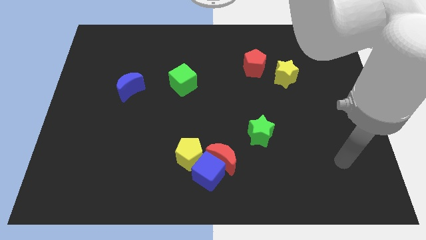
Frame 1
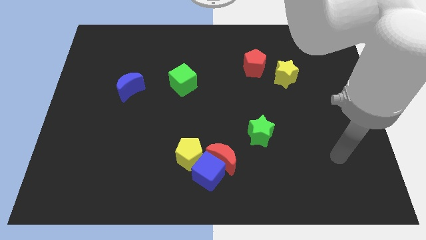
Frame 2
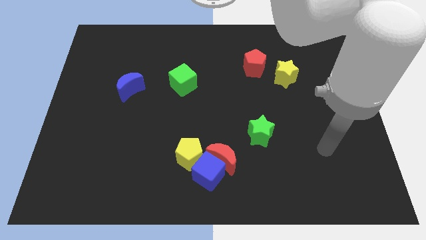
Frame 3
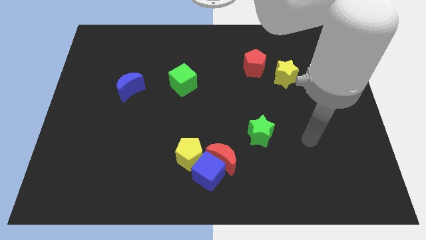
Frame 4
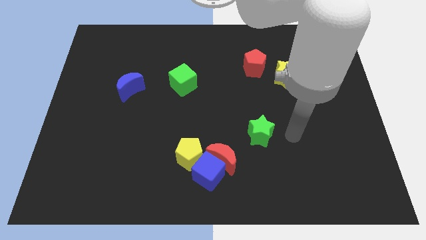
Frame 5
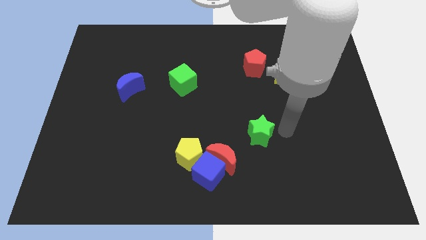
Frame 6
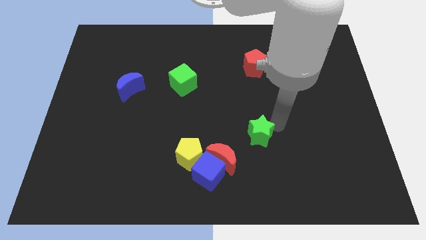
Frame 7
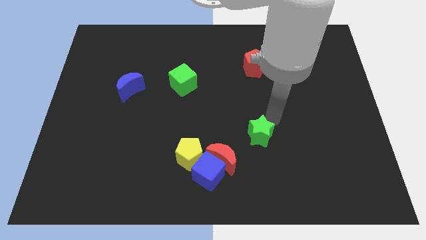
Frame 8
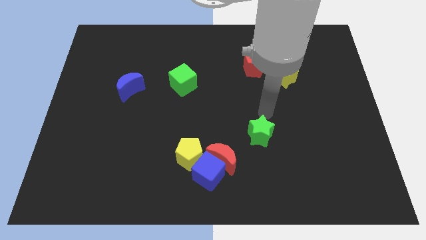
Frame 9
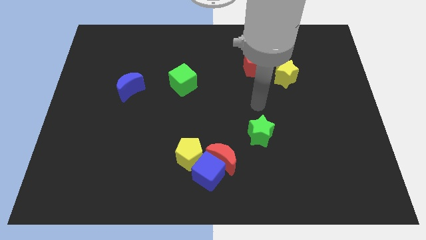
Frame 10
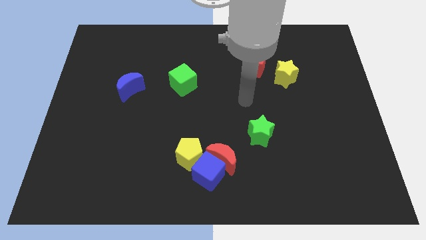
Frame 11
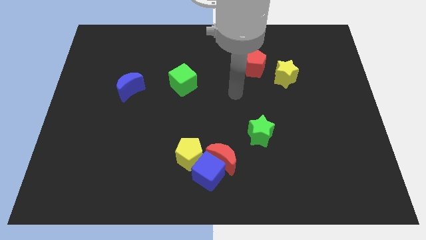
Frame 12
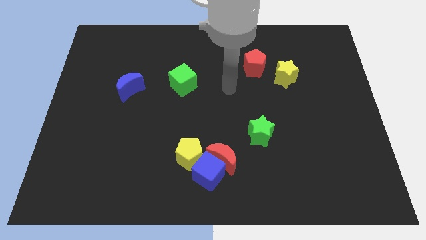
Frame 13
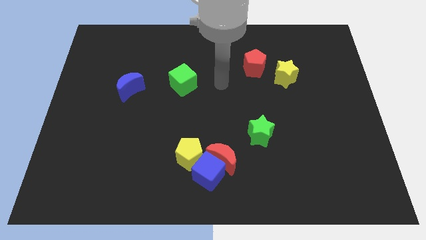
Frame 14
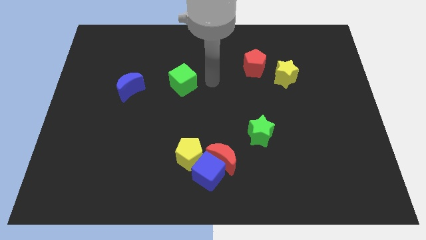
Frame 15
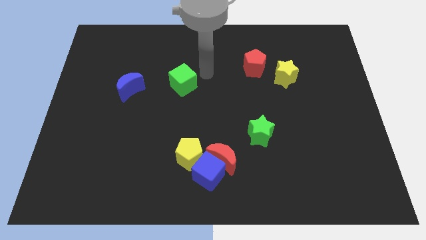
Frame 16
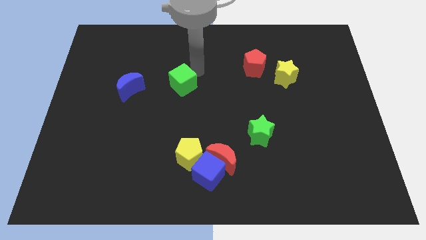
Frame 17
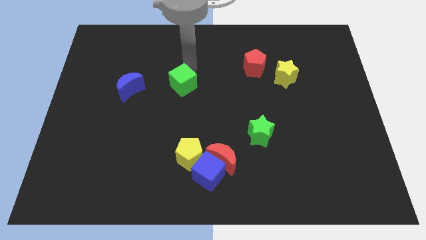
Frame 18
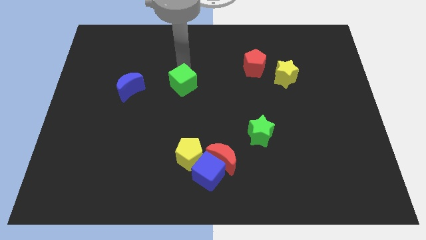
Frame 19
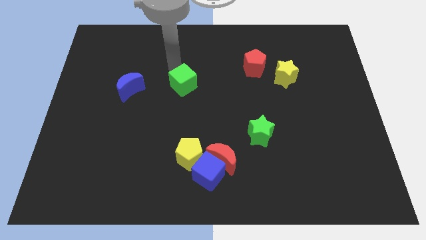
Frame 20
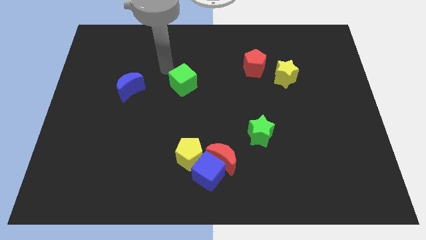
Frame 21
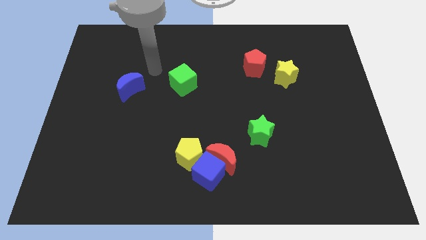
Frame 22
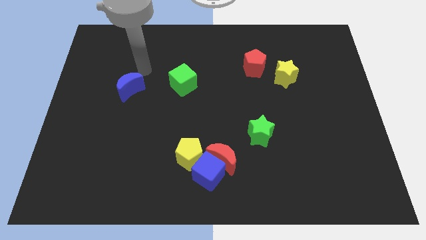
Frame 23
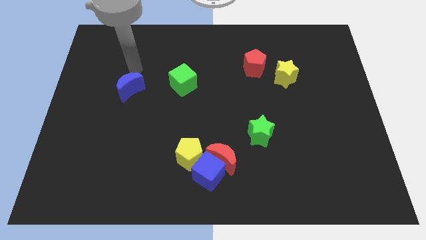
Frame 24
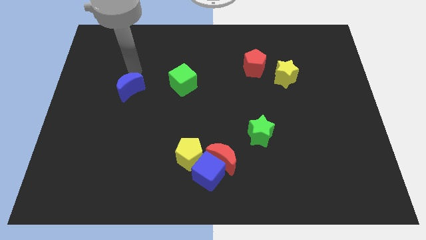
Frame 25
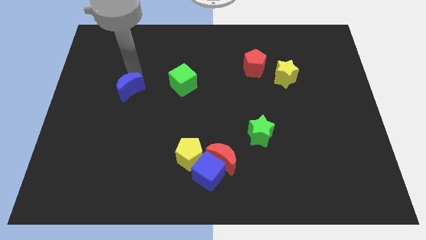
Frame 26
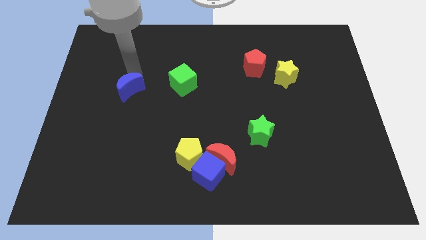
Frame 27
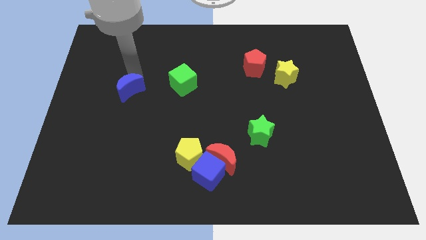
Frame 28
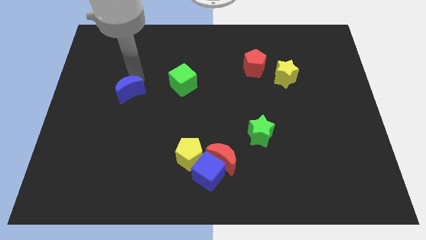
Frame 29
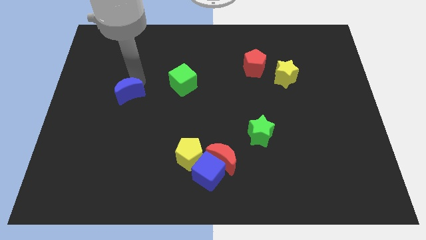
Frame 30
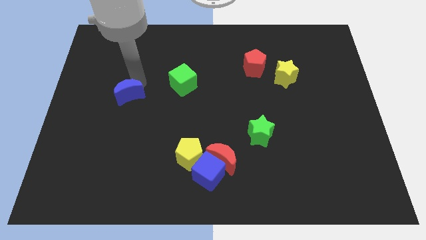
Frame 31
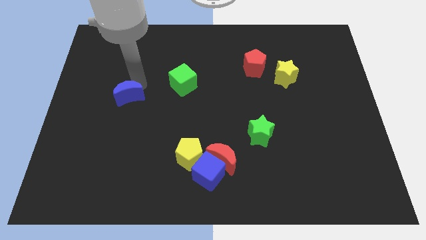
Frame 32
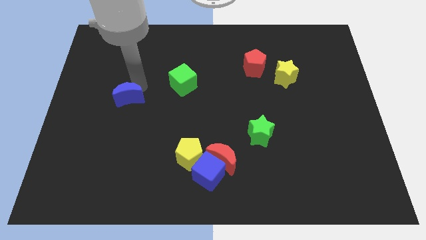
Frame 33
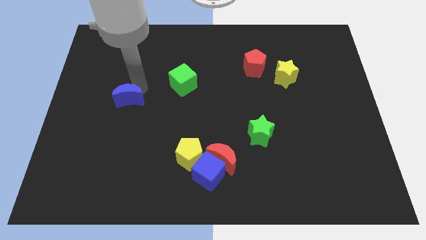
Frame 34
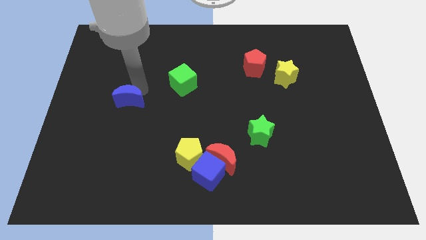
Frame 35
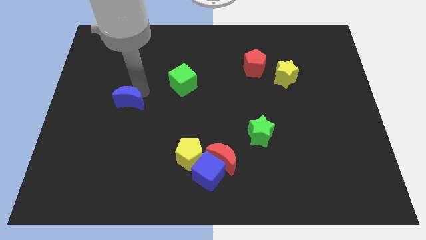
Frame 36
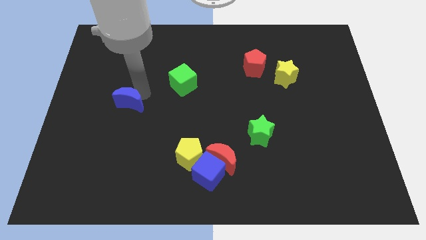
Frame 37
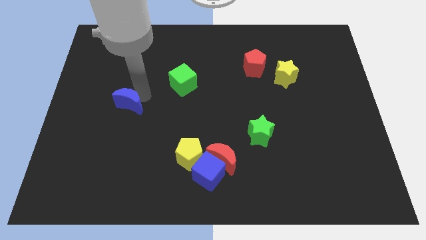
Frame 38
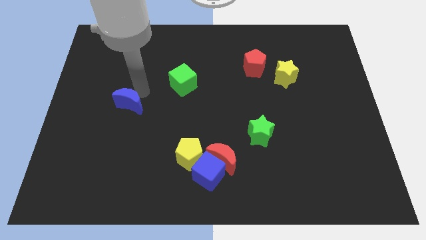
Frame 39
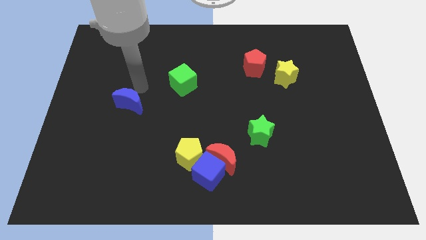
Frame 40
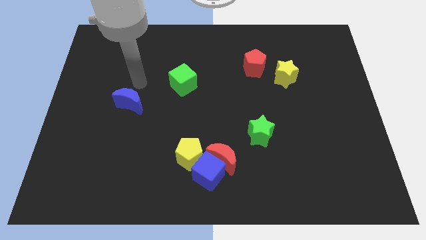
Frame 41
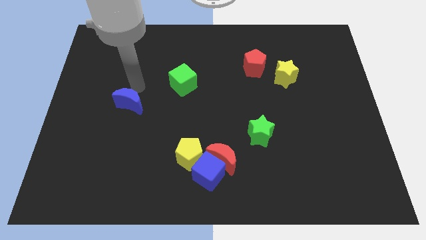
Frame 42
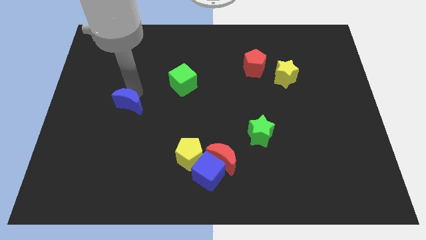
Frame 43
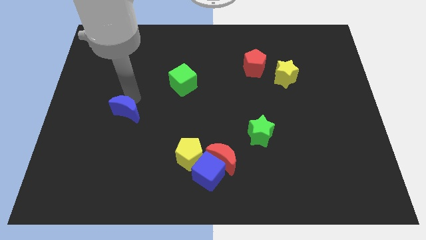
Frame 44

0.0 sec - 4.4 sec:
slide the blue moon downwards slightly

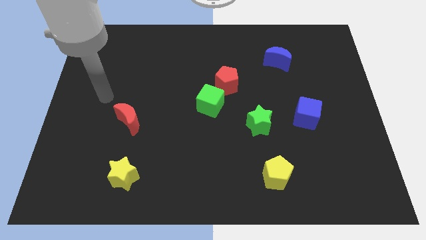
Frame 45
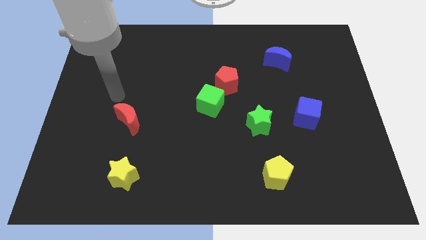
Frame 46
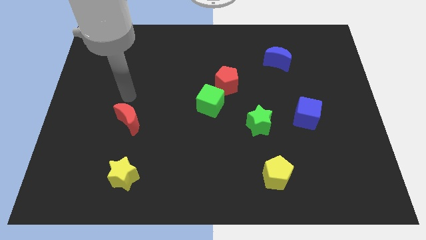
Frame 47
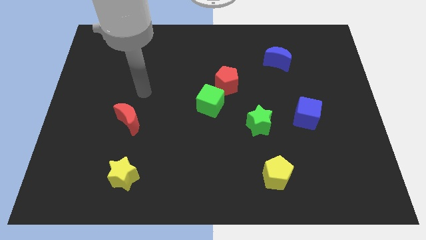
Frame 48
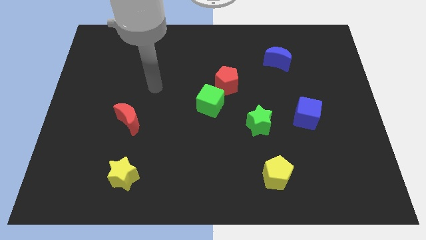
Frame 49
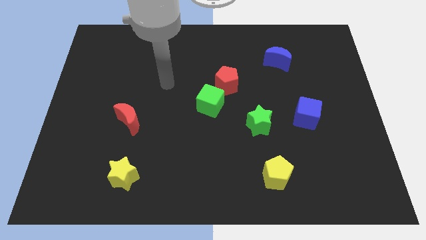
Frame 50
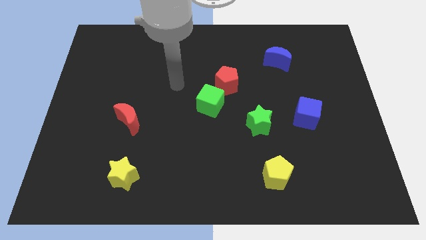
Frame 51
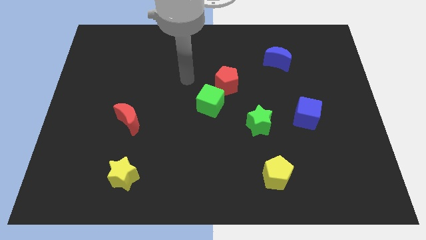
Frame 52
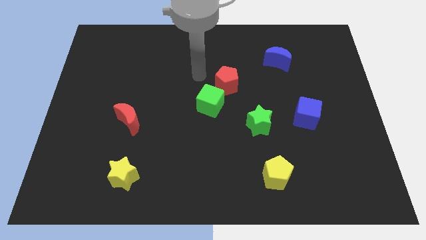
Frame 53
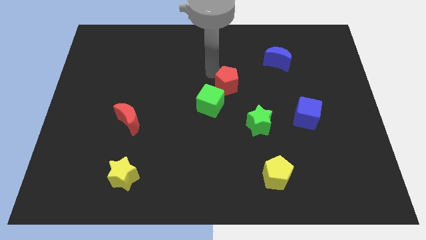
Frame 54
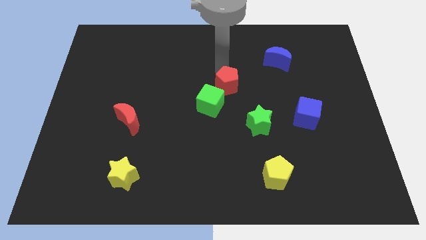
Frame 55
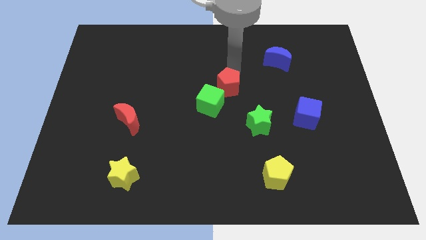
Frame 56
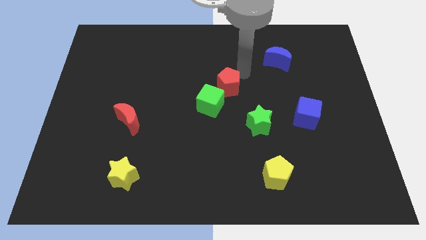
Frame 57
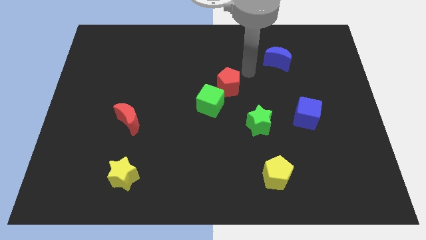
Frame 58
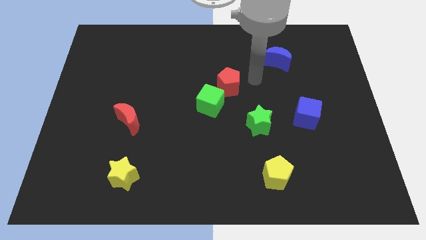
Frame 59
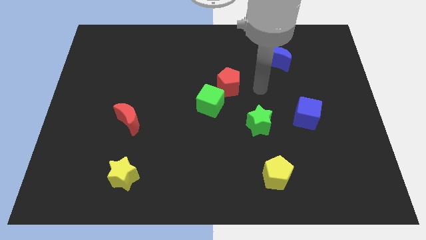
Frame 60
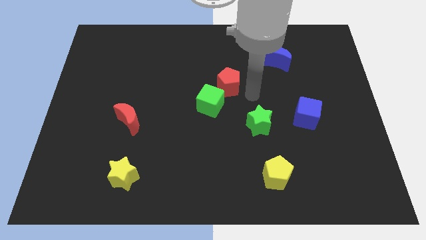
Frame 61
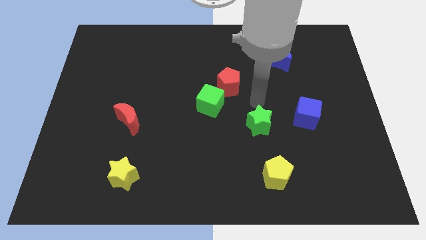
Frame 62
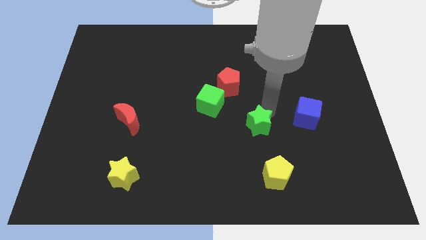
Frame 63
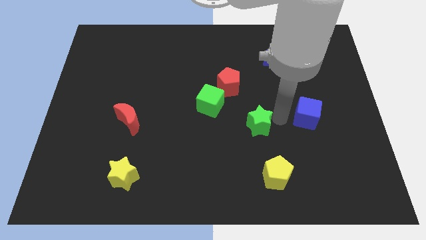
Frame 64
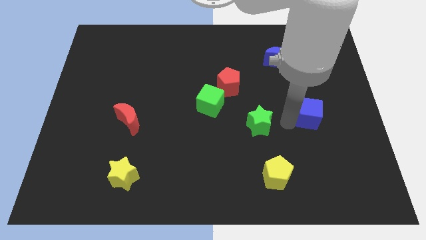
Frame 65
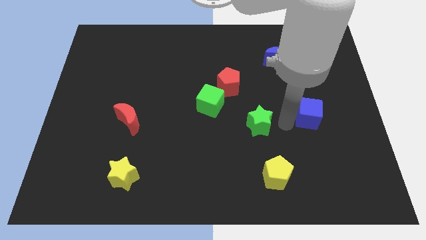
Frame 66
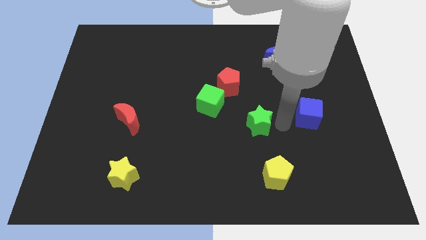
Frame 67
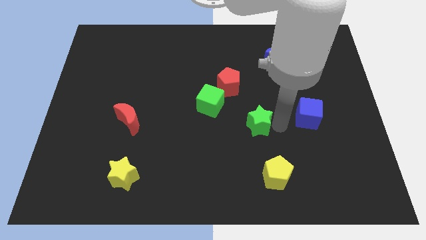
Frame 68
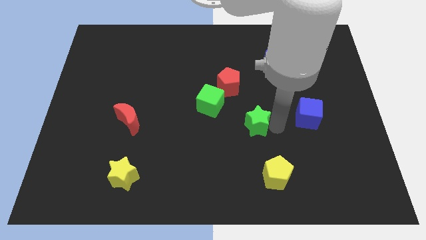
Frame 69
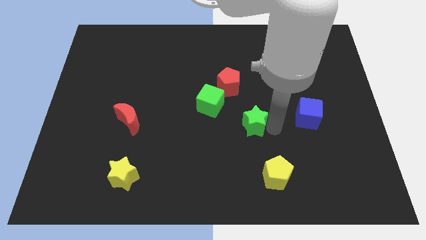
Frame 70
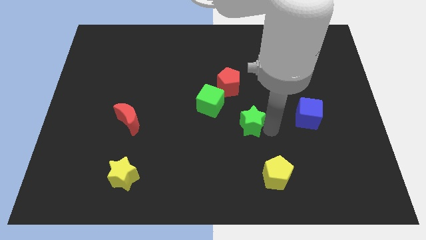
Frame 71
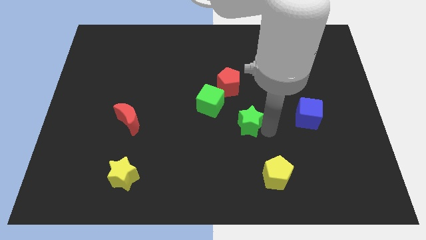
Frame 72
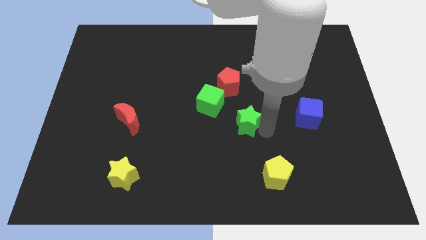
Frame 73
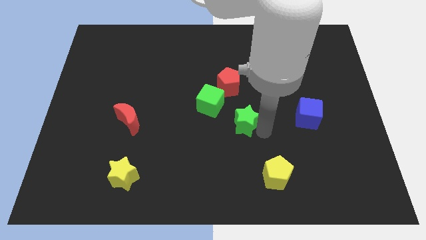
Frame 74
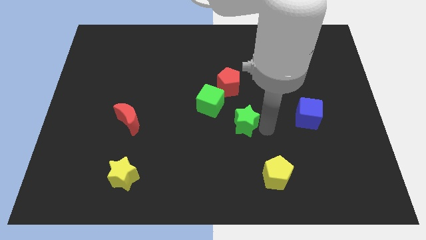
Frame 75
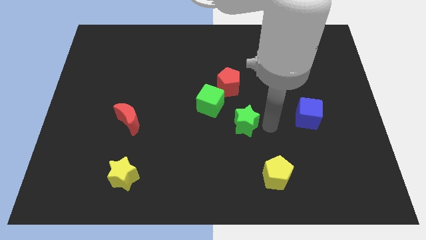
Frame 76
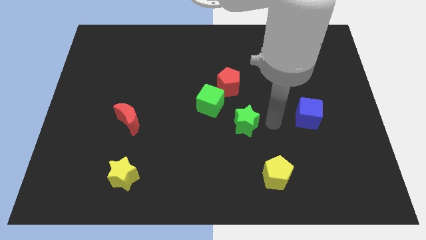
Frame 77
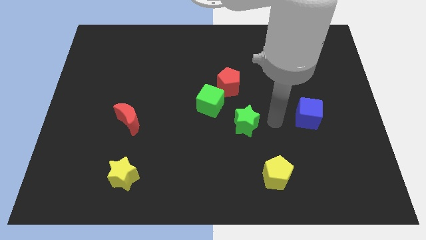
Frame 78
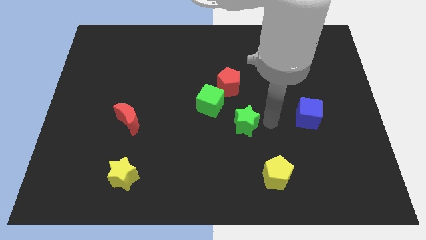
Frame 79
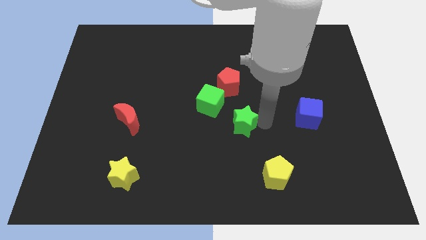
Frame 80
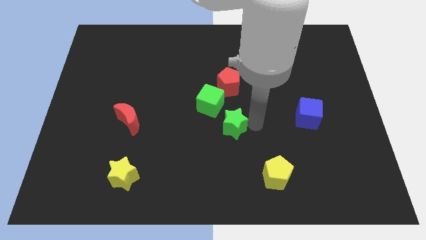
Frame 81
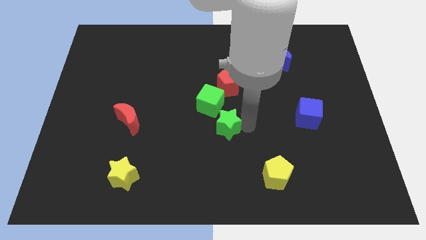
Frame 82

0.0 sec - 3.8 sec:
push the green star a bit left
